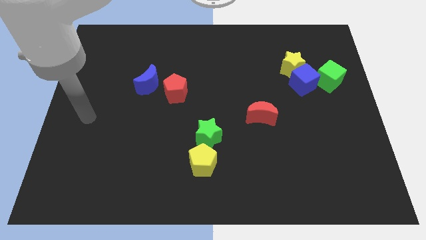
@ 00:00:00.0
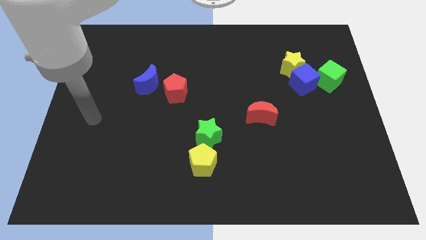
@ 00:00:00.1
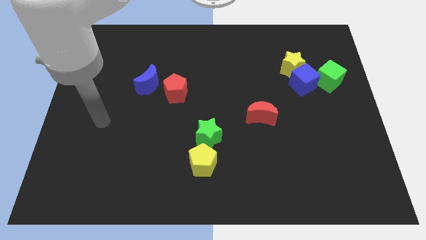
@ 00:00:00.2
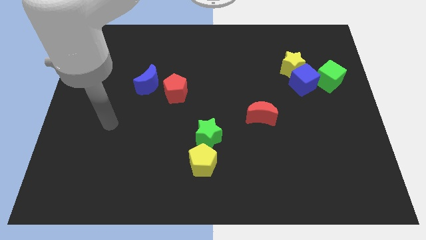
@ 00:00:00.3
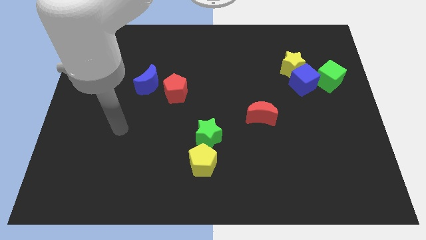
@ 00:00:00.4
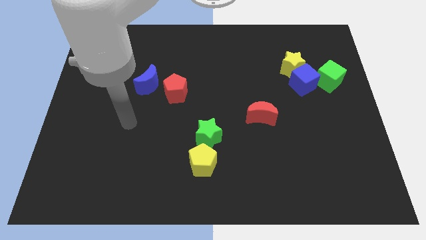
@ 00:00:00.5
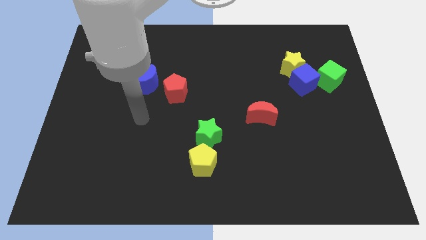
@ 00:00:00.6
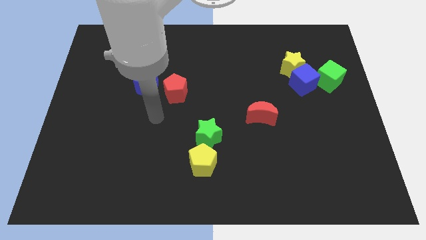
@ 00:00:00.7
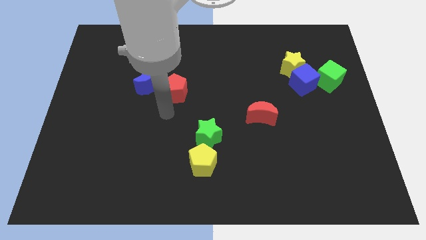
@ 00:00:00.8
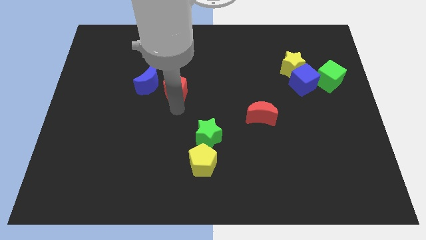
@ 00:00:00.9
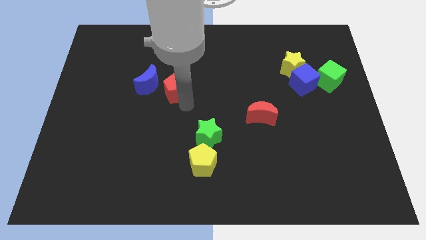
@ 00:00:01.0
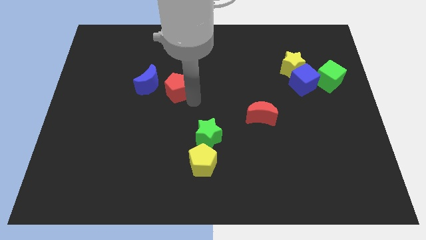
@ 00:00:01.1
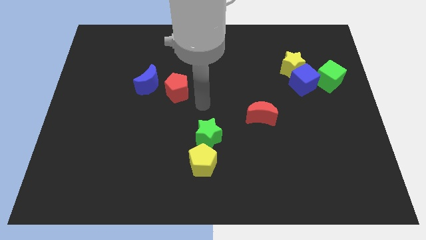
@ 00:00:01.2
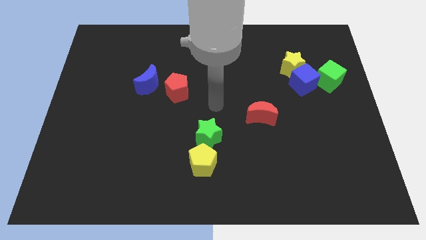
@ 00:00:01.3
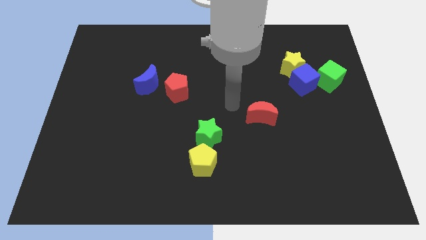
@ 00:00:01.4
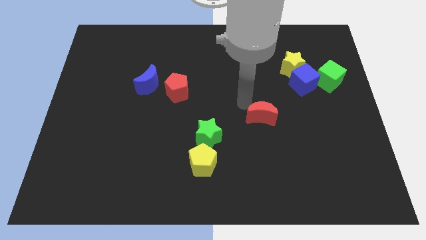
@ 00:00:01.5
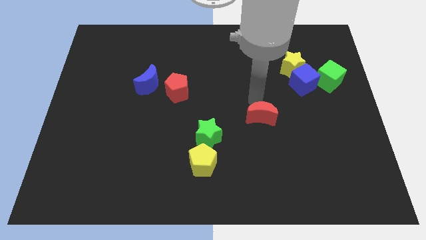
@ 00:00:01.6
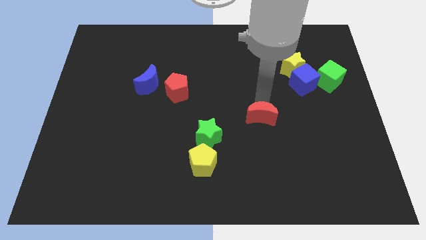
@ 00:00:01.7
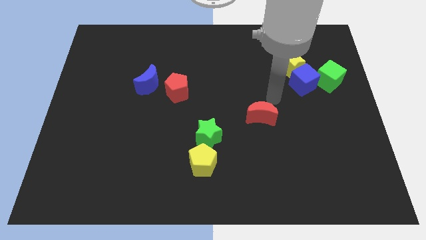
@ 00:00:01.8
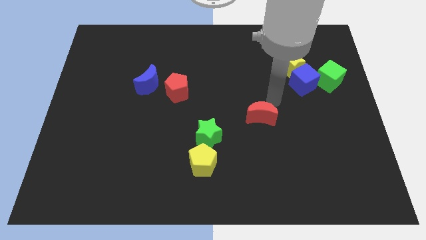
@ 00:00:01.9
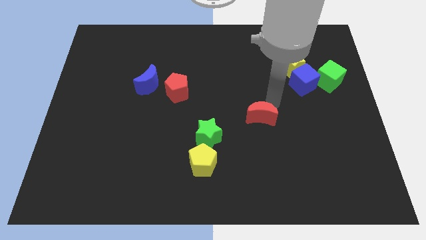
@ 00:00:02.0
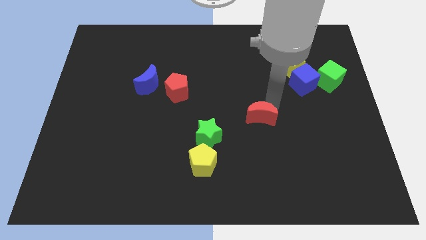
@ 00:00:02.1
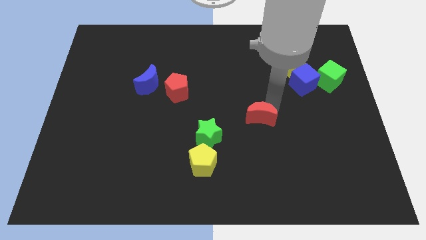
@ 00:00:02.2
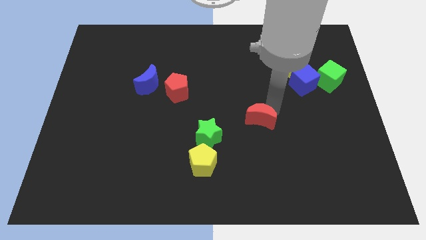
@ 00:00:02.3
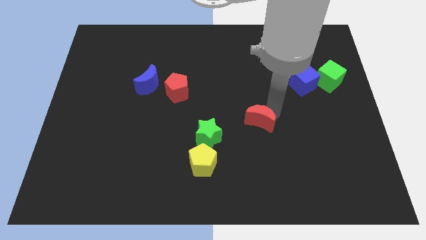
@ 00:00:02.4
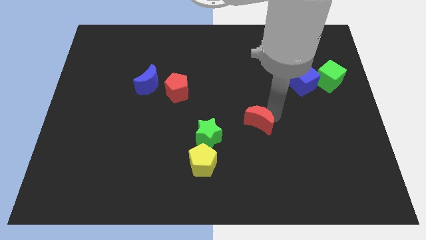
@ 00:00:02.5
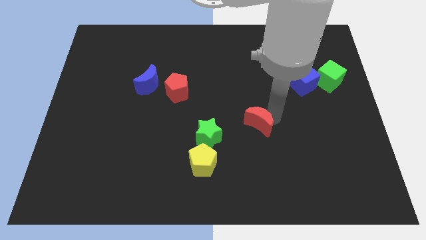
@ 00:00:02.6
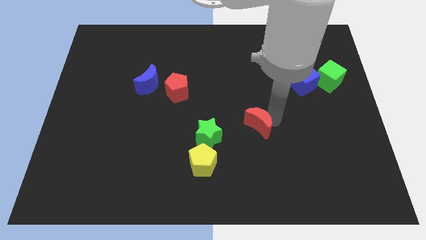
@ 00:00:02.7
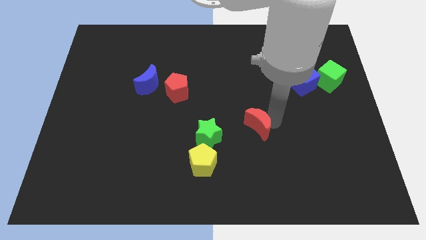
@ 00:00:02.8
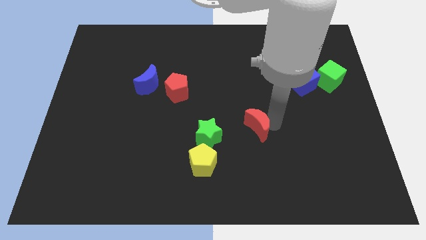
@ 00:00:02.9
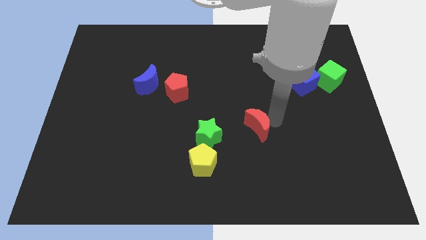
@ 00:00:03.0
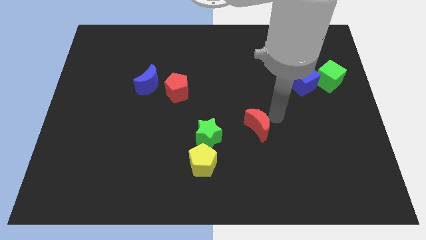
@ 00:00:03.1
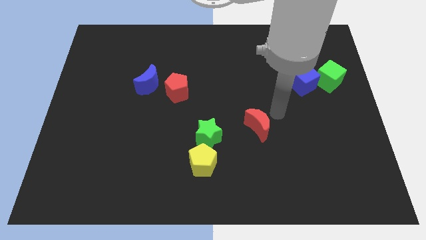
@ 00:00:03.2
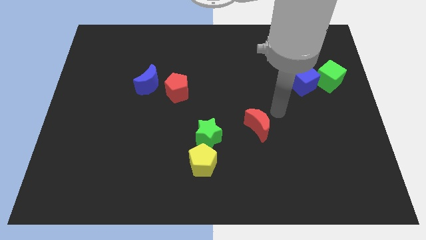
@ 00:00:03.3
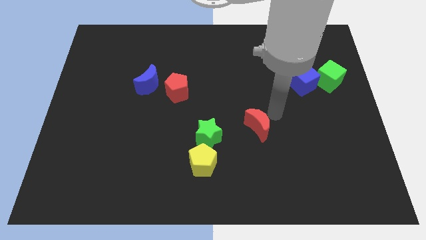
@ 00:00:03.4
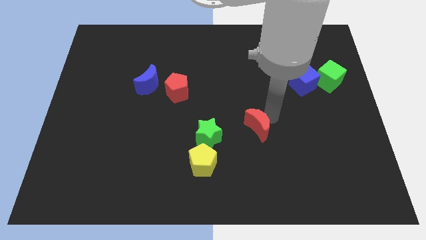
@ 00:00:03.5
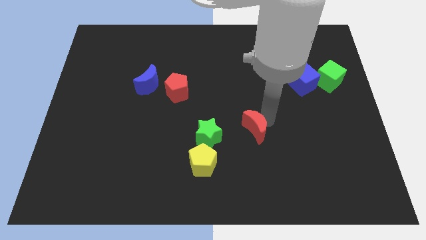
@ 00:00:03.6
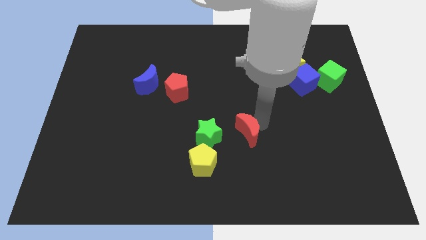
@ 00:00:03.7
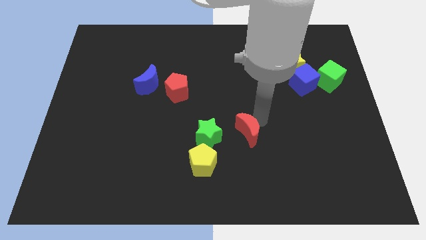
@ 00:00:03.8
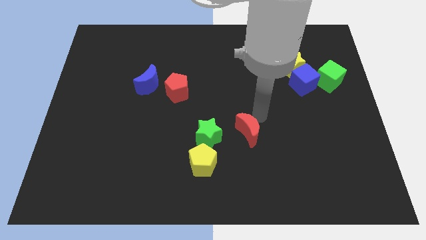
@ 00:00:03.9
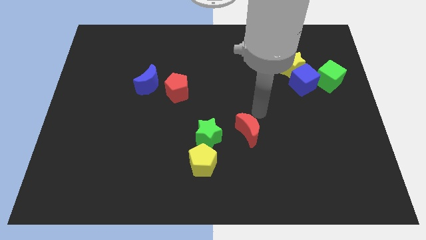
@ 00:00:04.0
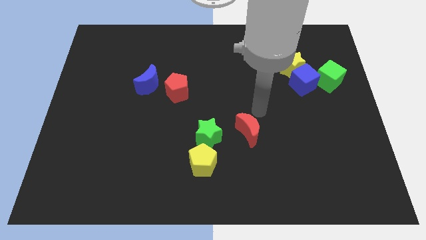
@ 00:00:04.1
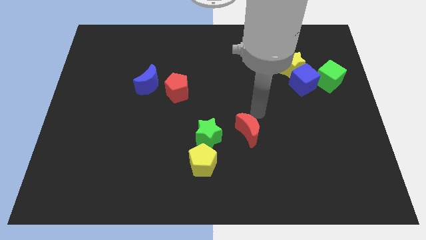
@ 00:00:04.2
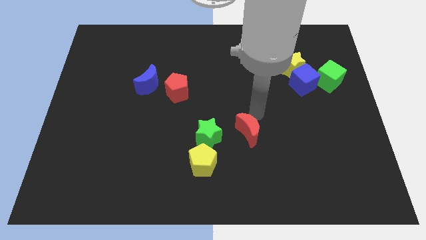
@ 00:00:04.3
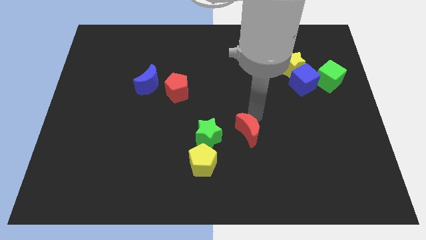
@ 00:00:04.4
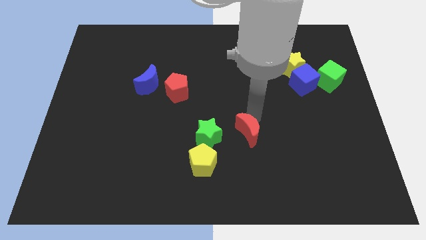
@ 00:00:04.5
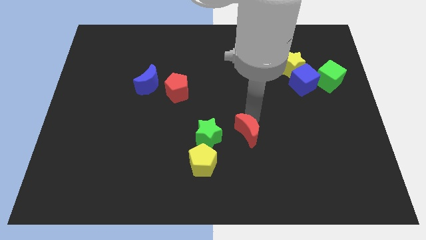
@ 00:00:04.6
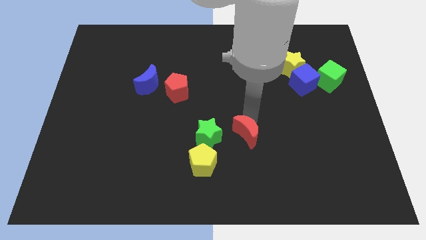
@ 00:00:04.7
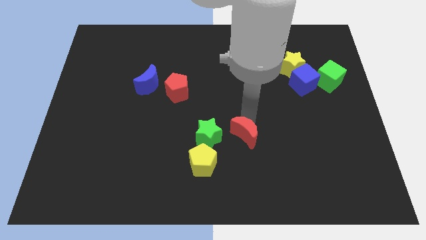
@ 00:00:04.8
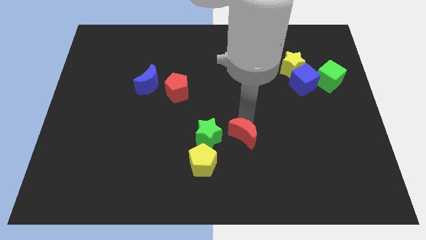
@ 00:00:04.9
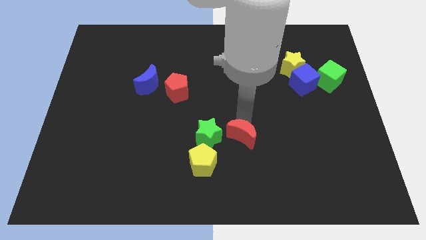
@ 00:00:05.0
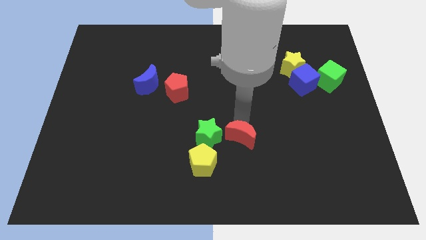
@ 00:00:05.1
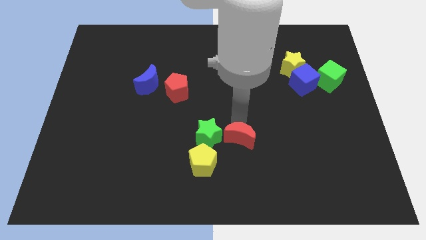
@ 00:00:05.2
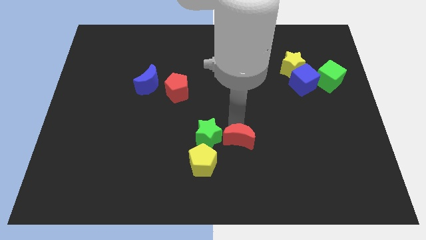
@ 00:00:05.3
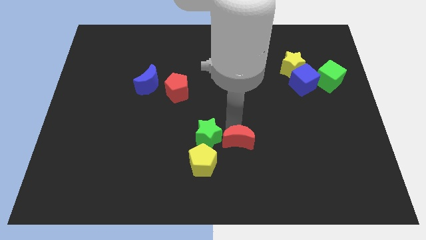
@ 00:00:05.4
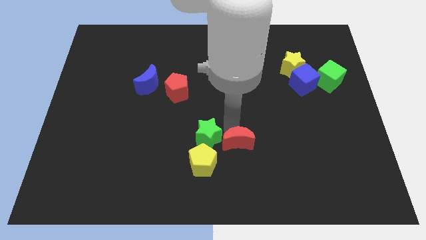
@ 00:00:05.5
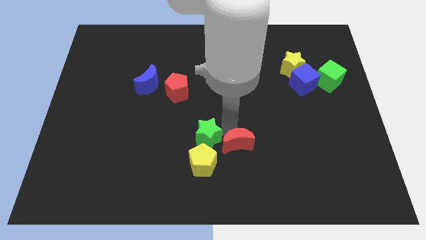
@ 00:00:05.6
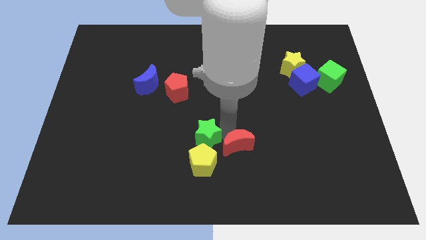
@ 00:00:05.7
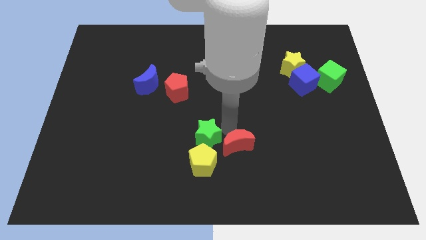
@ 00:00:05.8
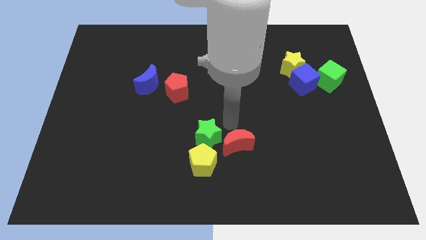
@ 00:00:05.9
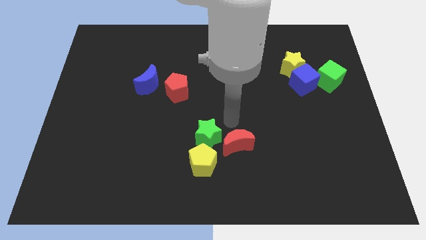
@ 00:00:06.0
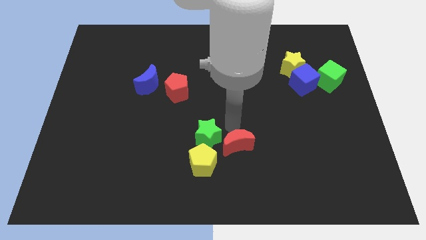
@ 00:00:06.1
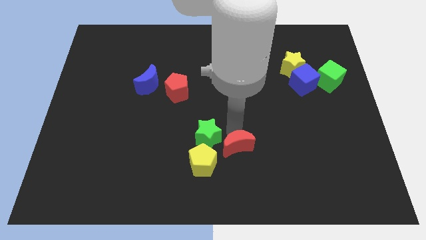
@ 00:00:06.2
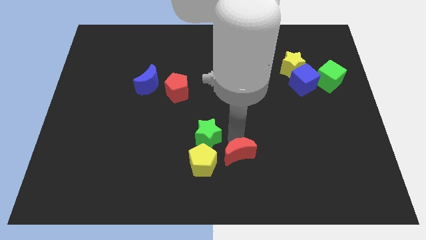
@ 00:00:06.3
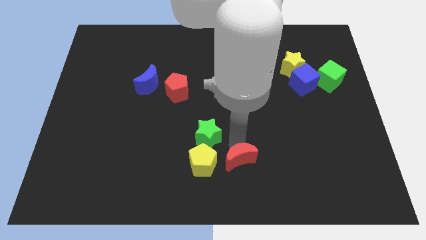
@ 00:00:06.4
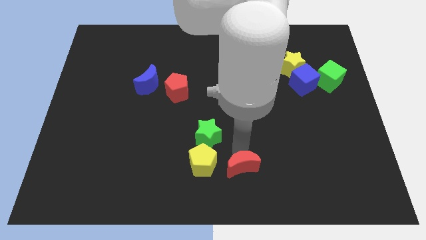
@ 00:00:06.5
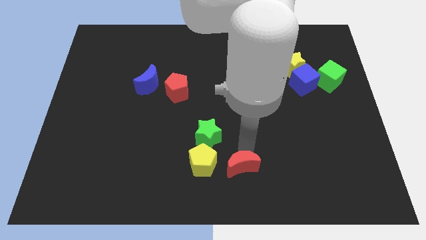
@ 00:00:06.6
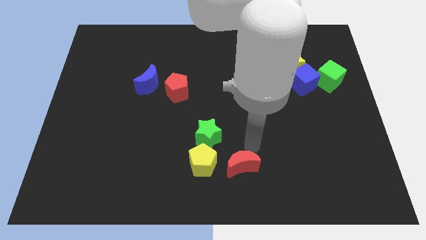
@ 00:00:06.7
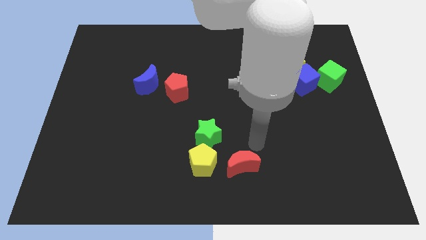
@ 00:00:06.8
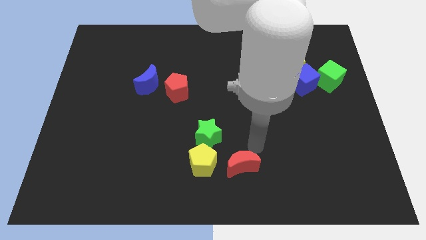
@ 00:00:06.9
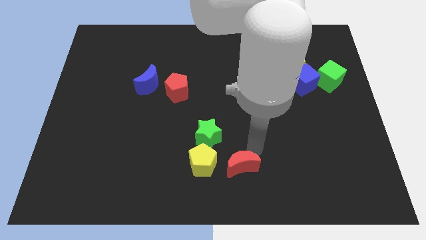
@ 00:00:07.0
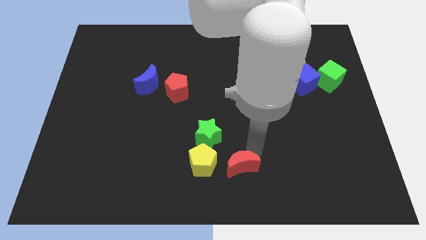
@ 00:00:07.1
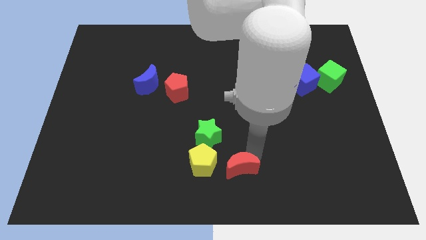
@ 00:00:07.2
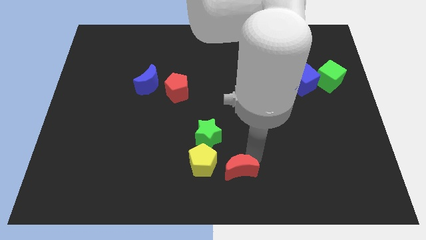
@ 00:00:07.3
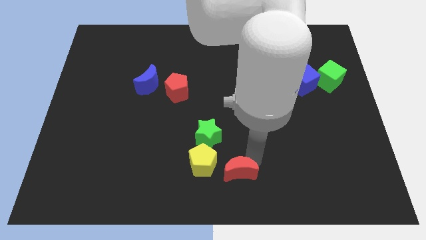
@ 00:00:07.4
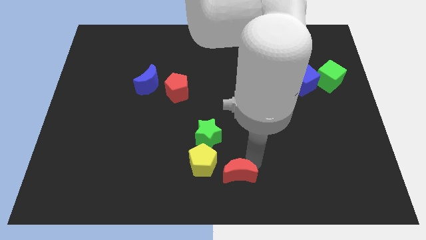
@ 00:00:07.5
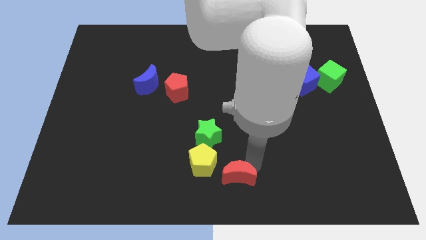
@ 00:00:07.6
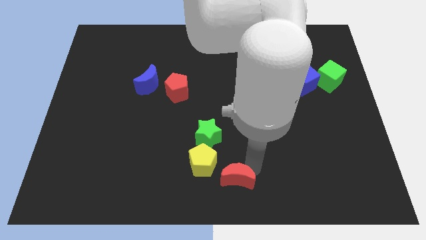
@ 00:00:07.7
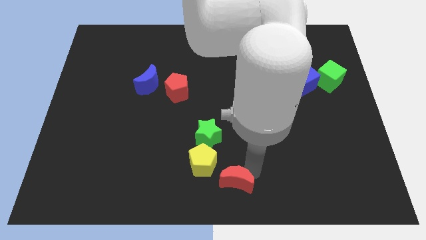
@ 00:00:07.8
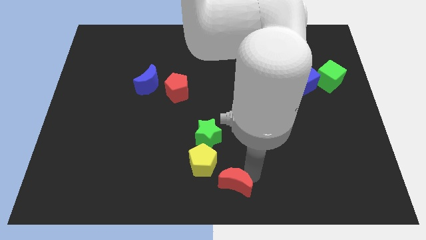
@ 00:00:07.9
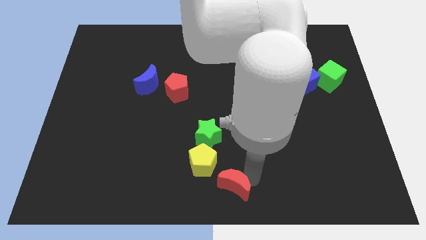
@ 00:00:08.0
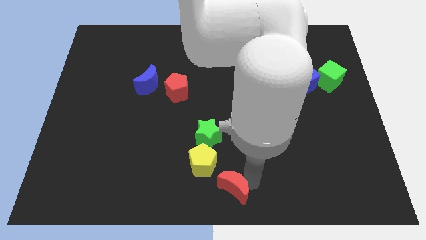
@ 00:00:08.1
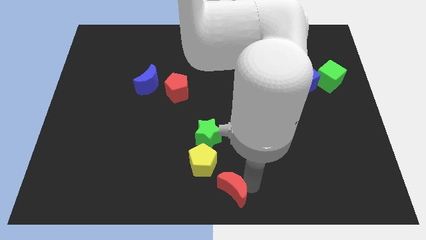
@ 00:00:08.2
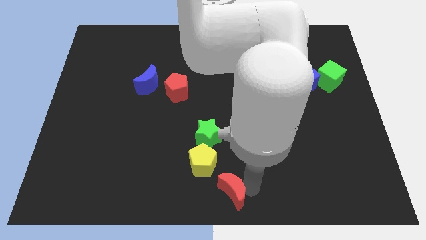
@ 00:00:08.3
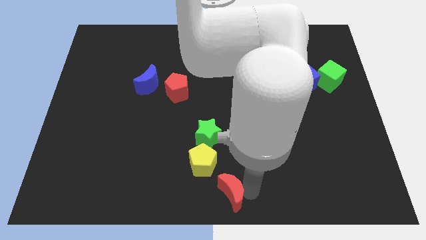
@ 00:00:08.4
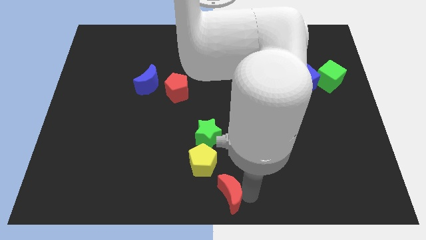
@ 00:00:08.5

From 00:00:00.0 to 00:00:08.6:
move the red moon below the green star
